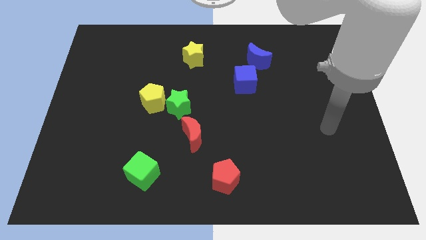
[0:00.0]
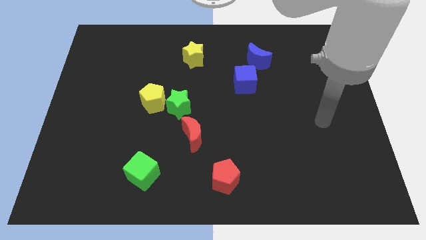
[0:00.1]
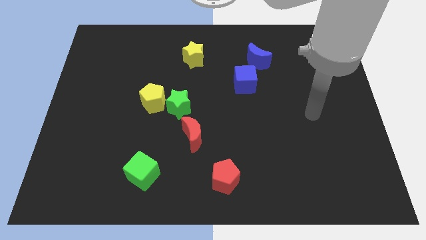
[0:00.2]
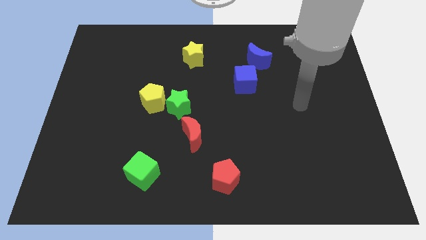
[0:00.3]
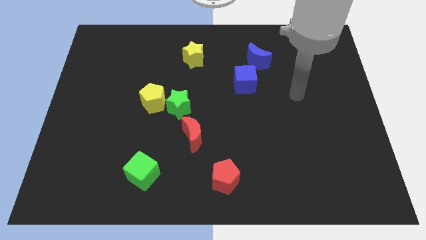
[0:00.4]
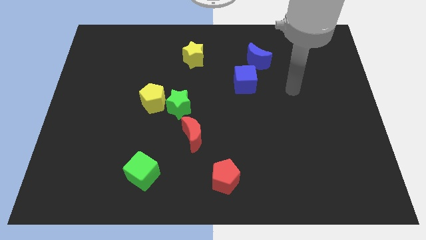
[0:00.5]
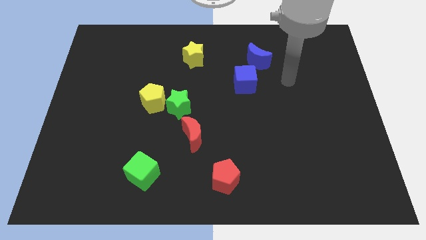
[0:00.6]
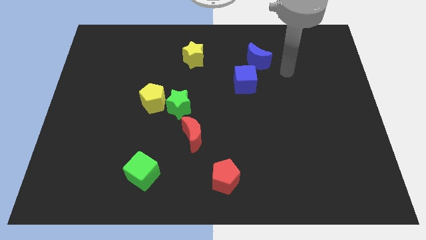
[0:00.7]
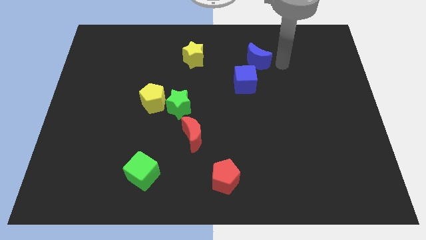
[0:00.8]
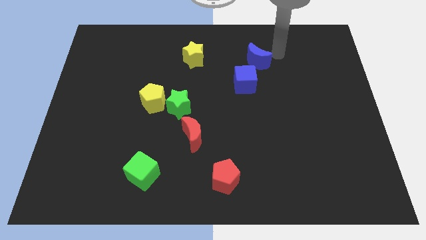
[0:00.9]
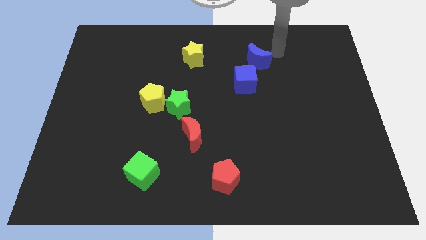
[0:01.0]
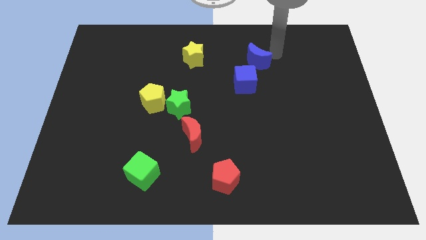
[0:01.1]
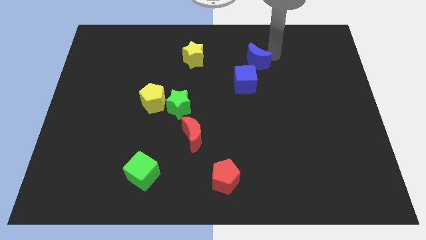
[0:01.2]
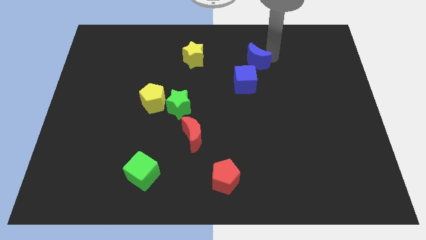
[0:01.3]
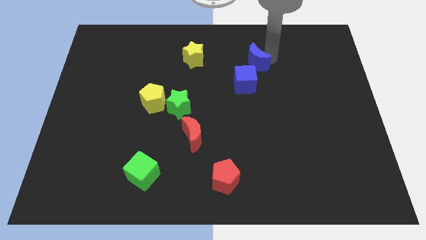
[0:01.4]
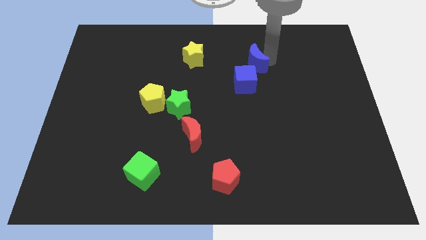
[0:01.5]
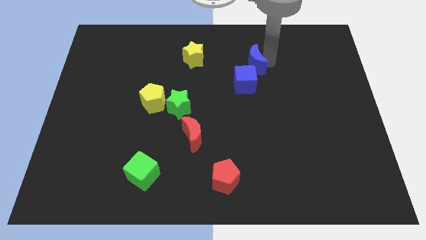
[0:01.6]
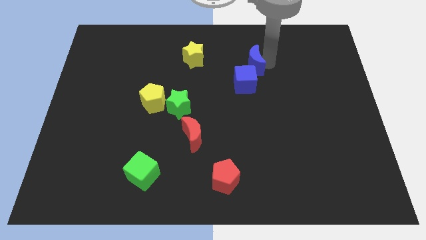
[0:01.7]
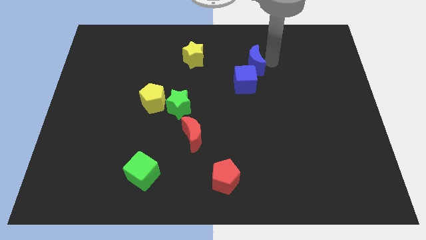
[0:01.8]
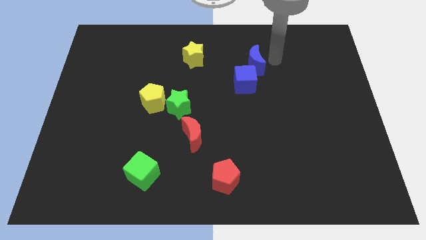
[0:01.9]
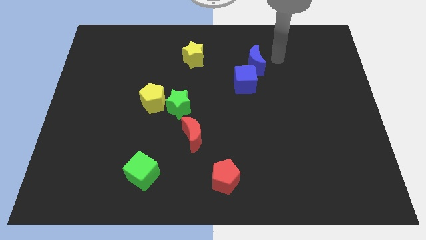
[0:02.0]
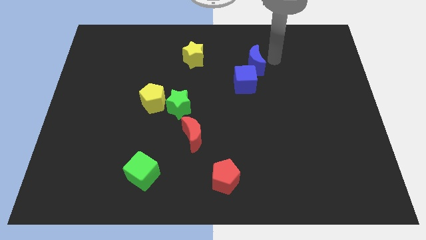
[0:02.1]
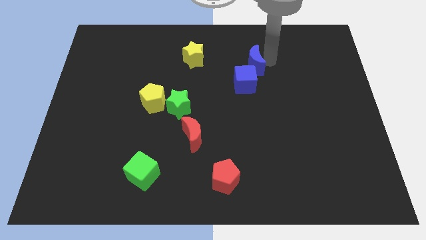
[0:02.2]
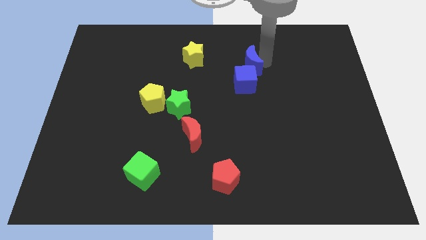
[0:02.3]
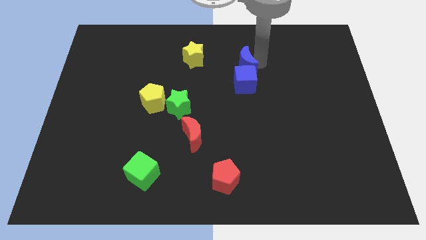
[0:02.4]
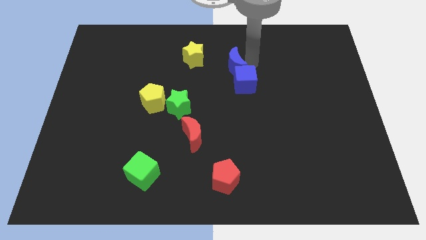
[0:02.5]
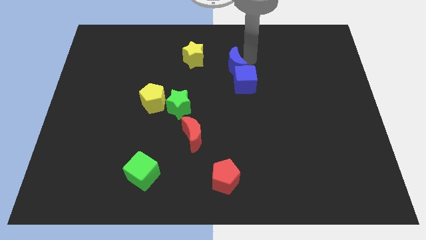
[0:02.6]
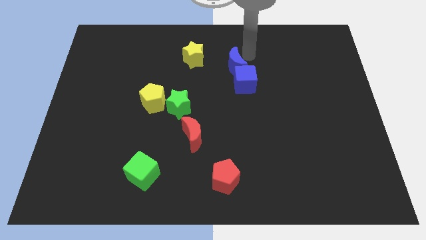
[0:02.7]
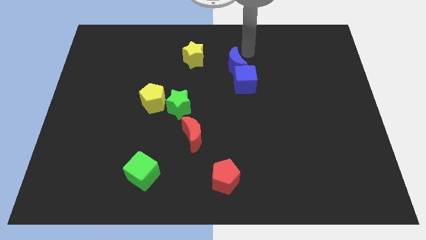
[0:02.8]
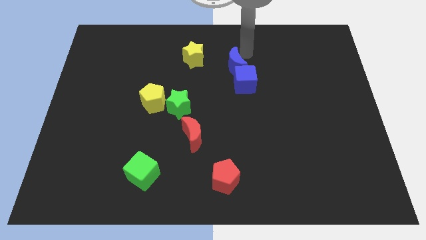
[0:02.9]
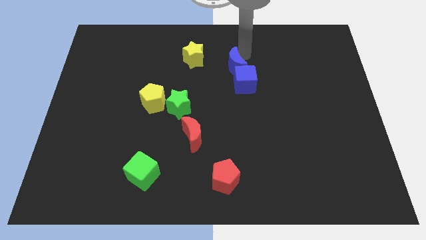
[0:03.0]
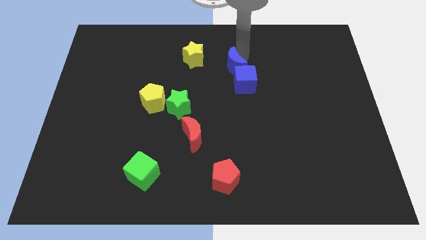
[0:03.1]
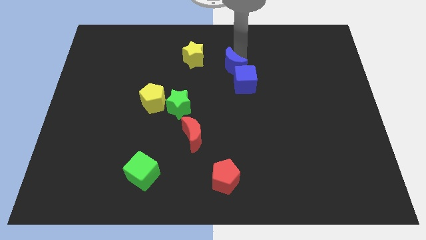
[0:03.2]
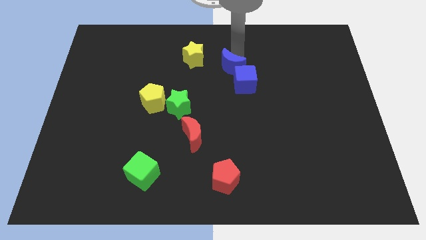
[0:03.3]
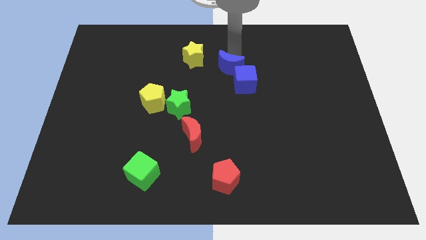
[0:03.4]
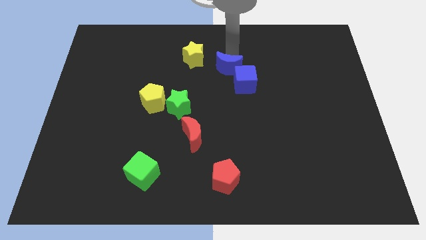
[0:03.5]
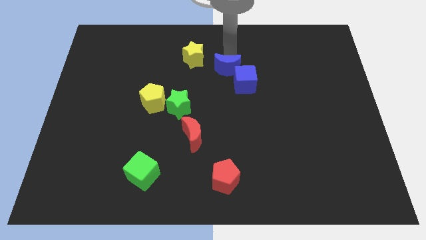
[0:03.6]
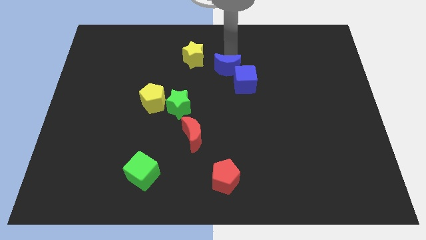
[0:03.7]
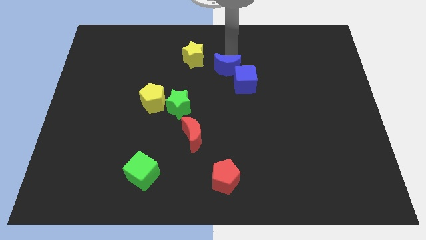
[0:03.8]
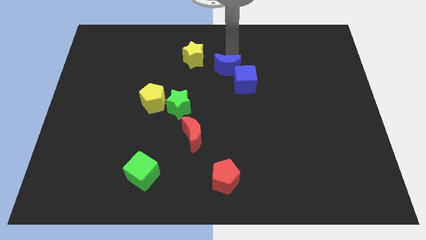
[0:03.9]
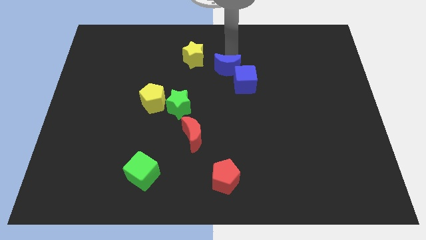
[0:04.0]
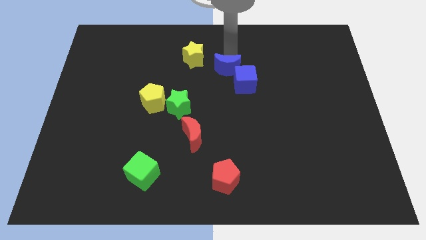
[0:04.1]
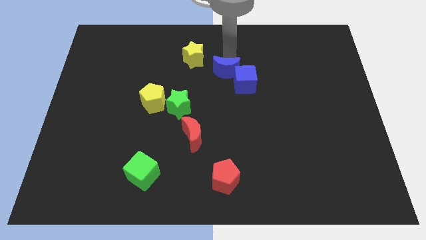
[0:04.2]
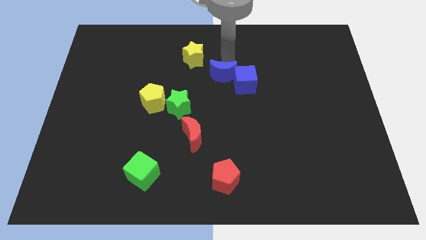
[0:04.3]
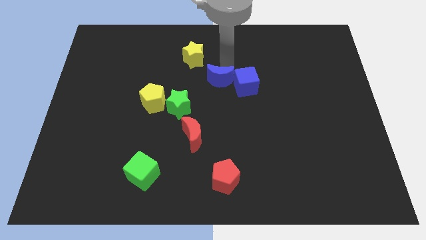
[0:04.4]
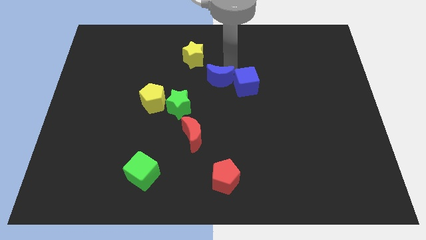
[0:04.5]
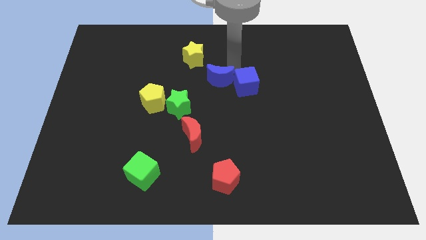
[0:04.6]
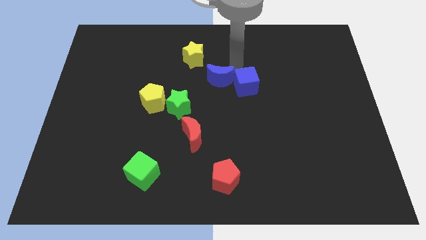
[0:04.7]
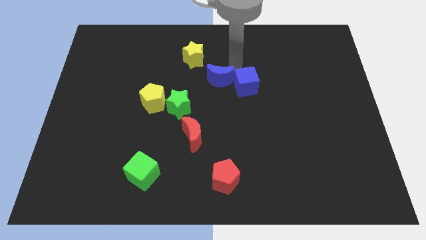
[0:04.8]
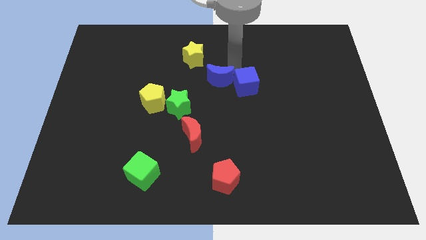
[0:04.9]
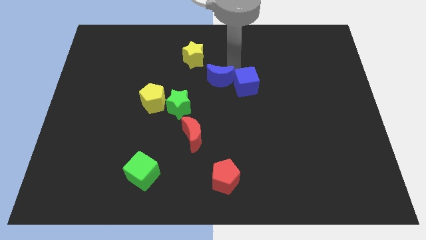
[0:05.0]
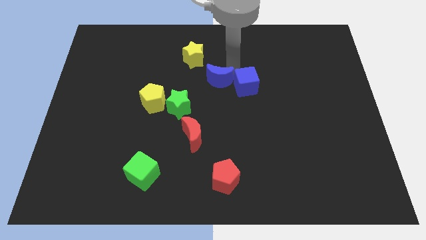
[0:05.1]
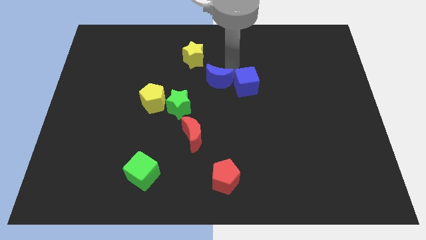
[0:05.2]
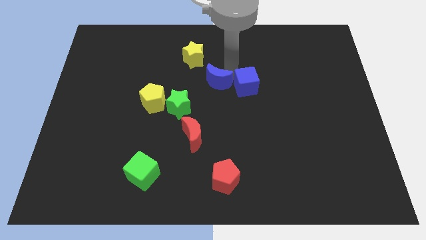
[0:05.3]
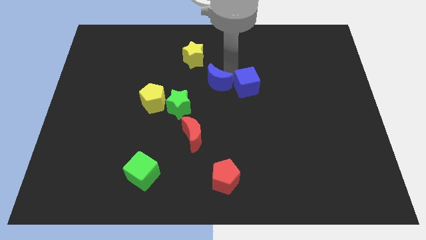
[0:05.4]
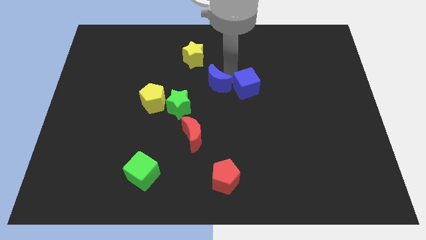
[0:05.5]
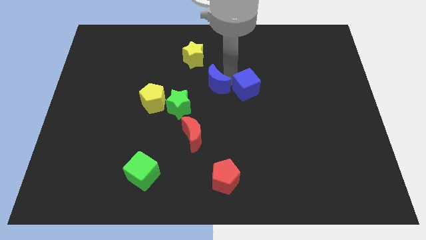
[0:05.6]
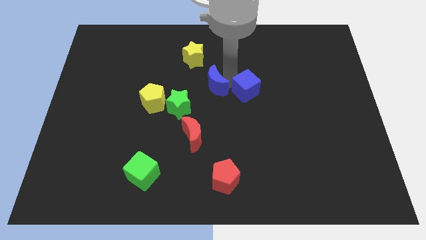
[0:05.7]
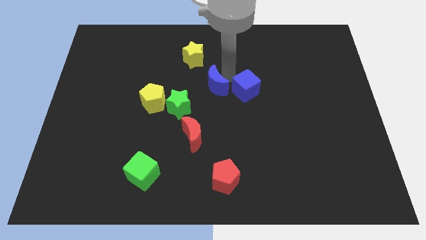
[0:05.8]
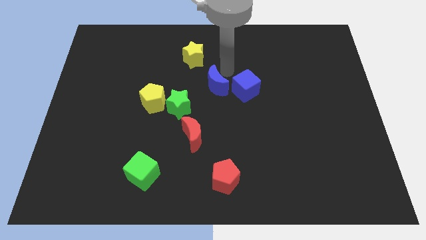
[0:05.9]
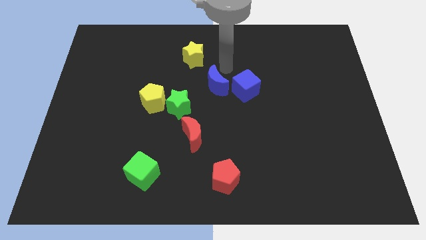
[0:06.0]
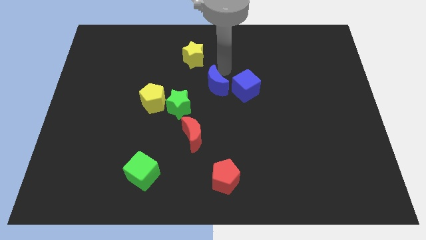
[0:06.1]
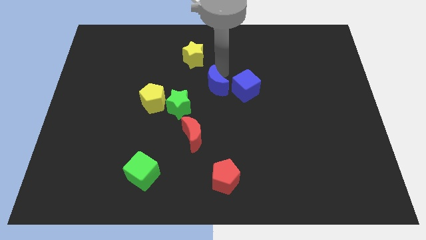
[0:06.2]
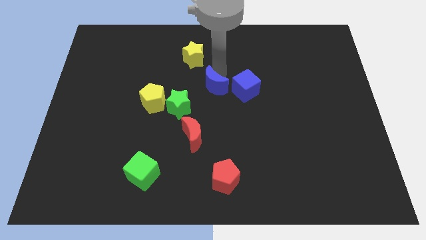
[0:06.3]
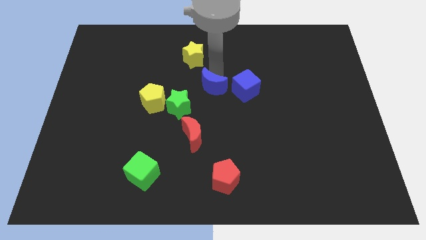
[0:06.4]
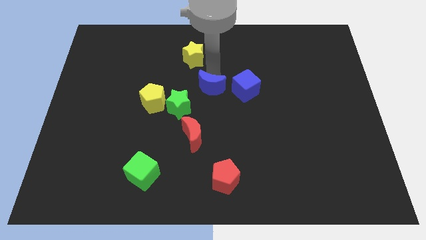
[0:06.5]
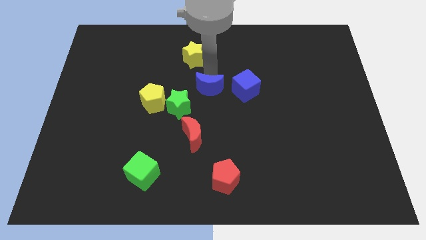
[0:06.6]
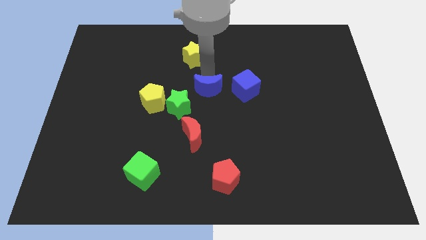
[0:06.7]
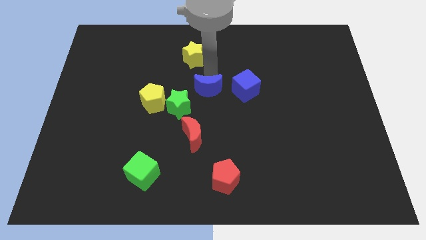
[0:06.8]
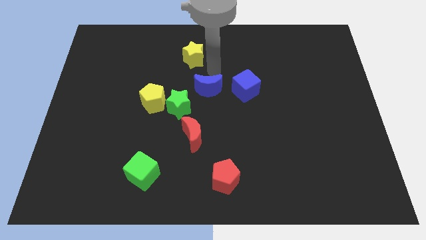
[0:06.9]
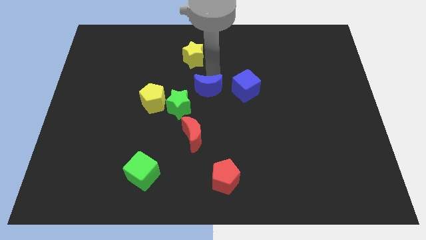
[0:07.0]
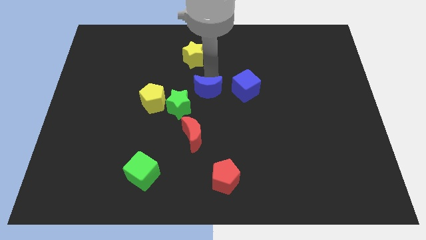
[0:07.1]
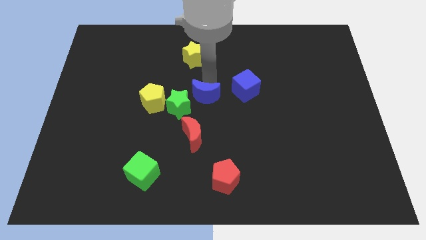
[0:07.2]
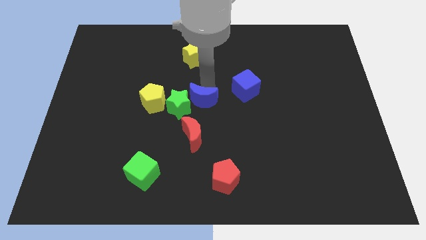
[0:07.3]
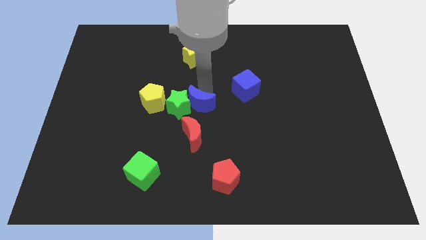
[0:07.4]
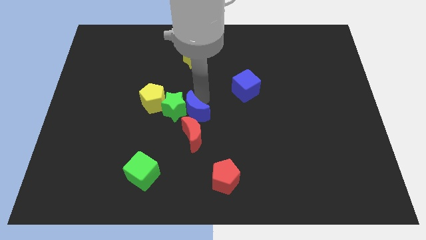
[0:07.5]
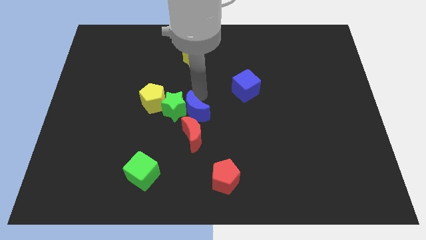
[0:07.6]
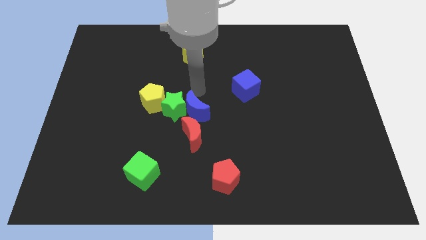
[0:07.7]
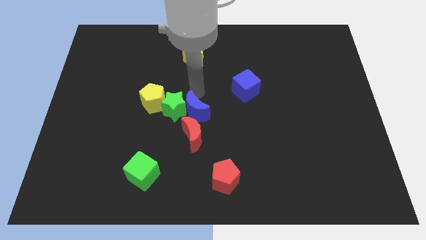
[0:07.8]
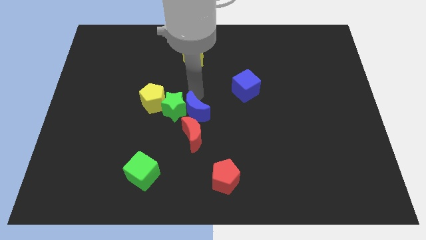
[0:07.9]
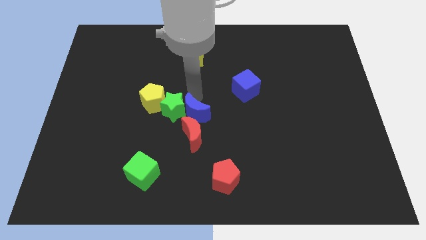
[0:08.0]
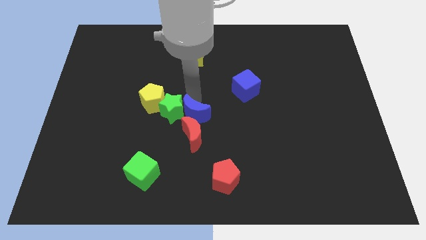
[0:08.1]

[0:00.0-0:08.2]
slide the blue moon close to the red moon
